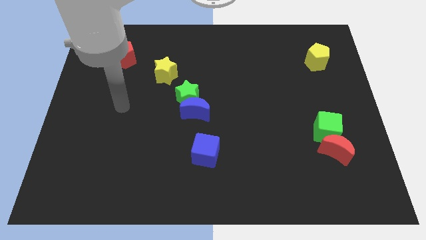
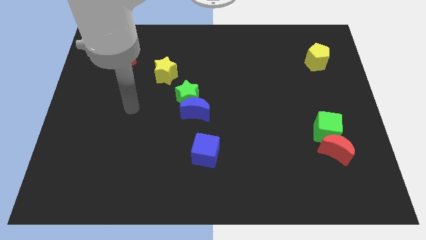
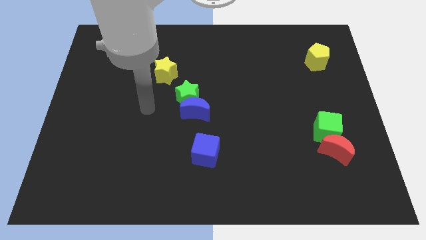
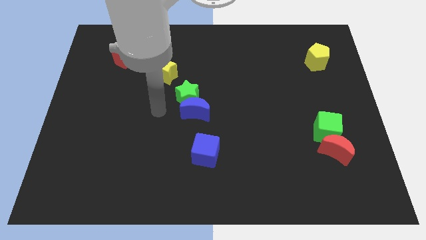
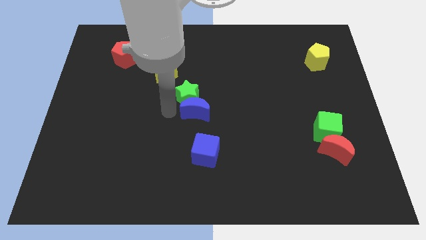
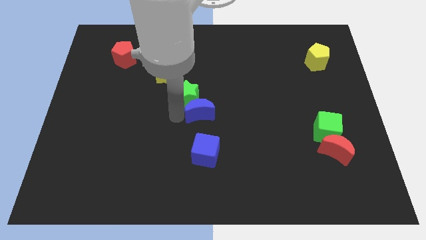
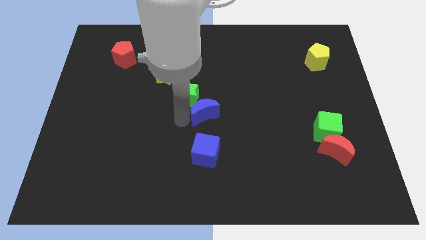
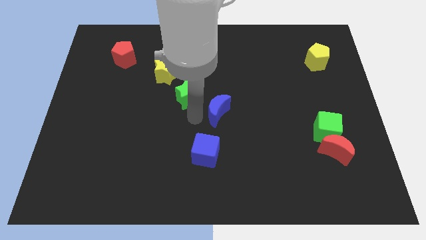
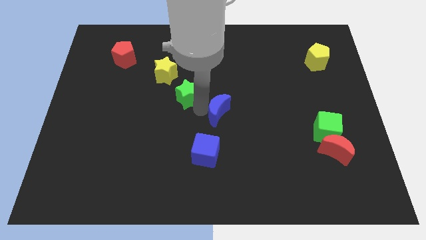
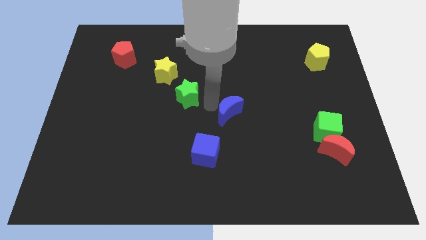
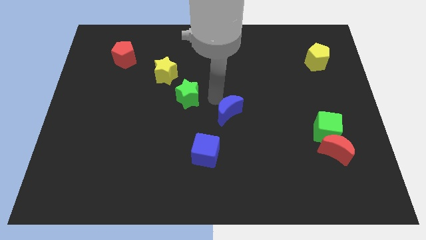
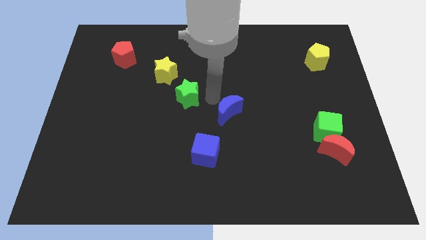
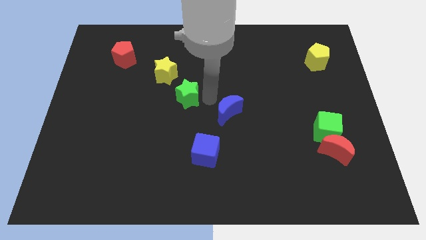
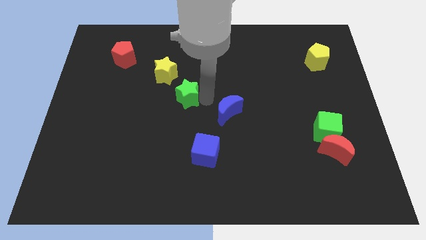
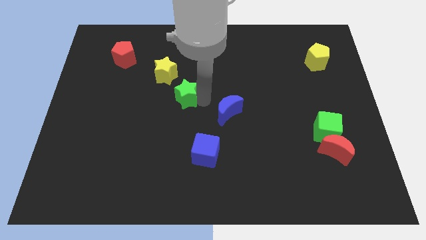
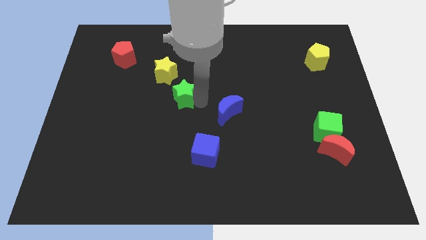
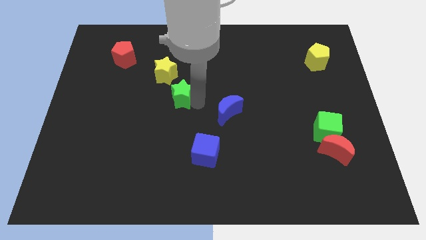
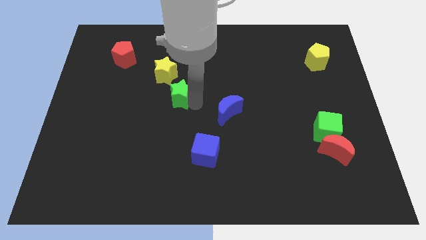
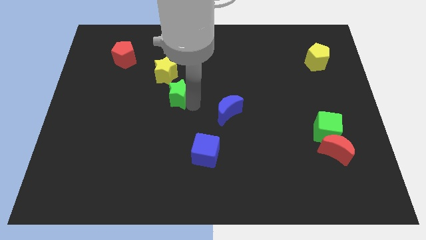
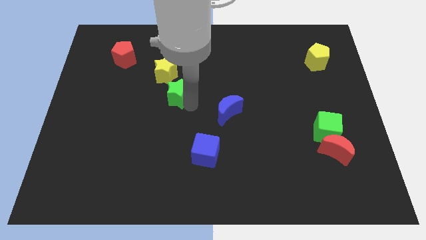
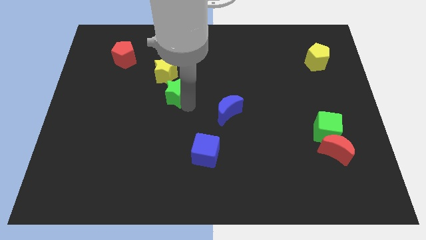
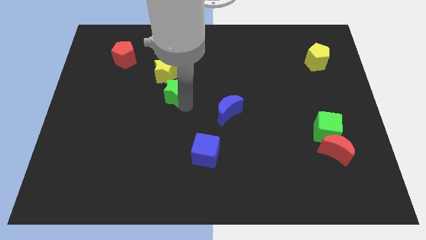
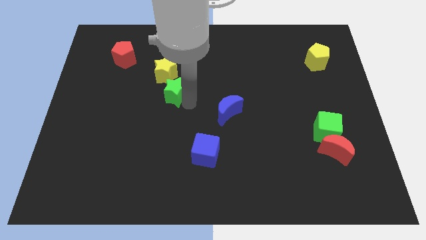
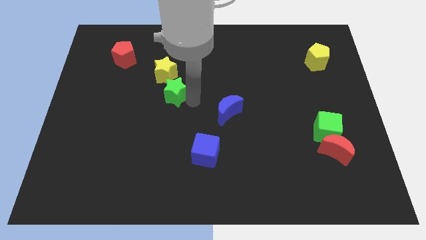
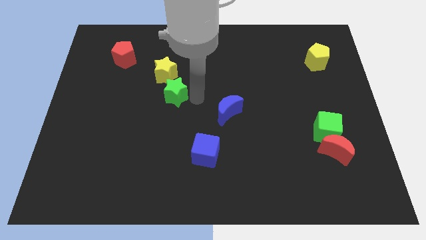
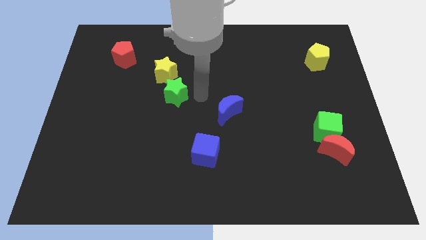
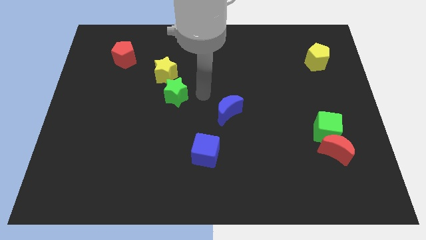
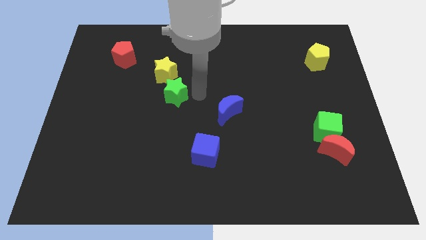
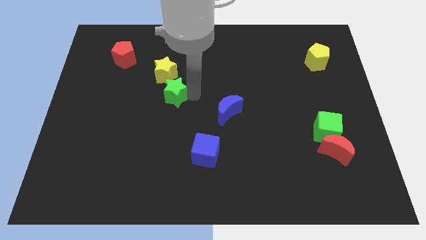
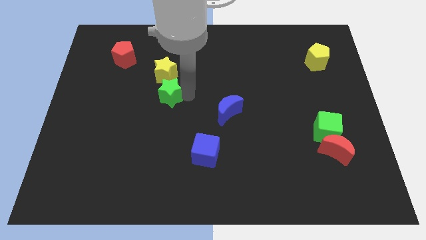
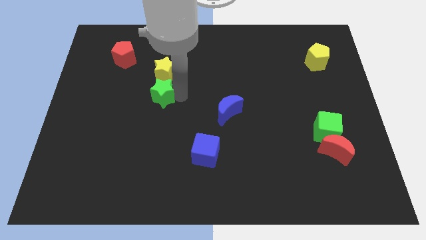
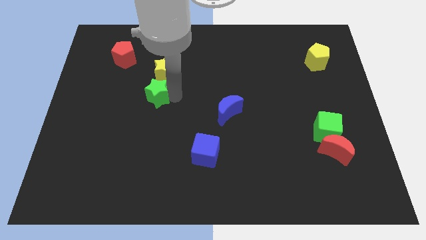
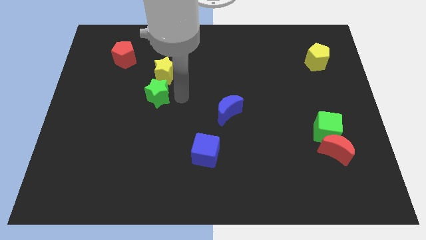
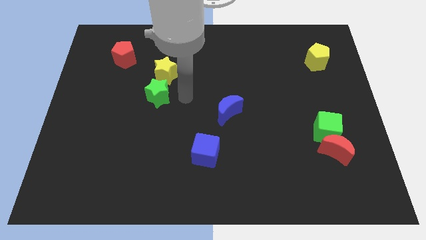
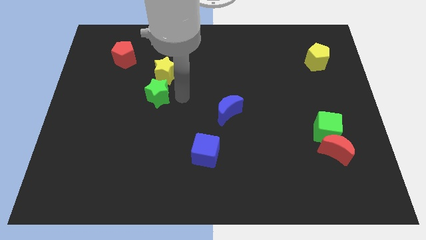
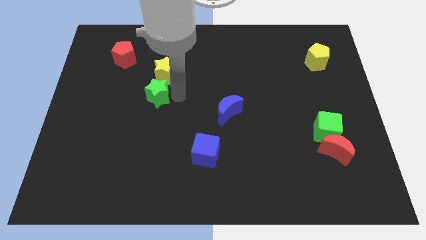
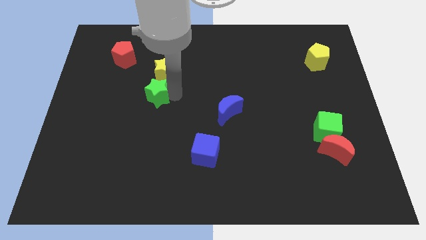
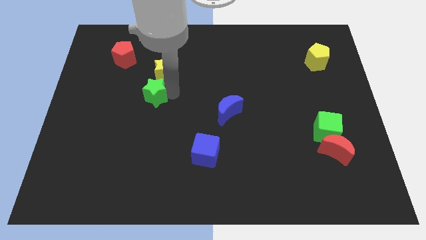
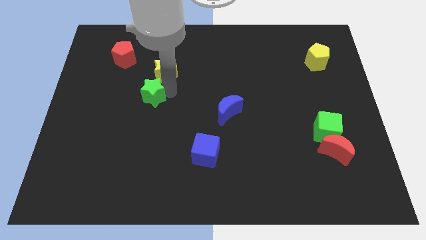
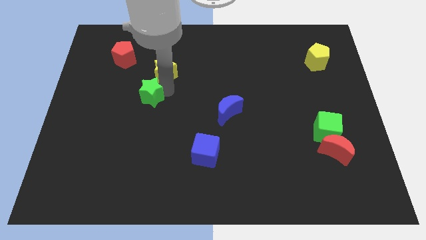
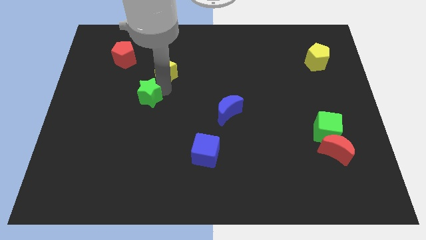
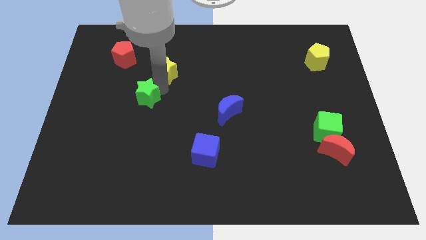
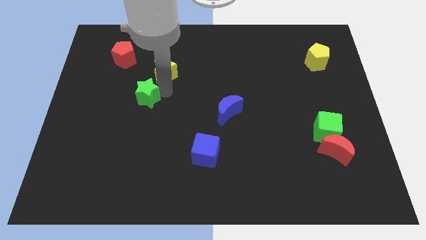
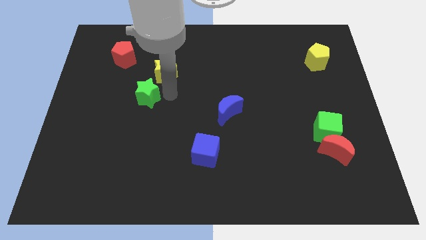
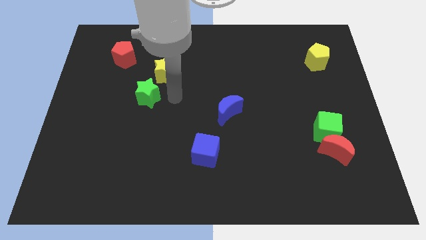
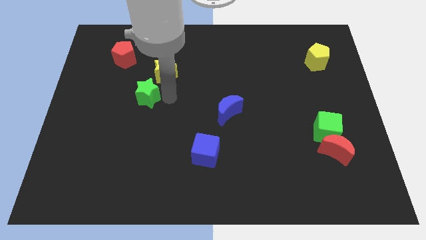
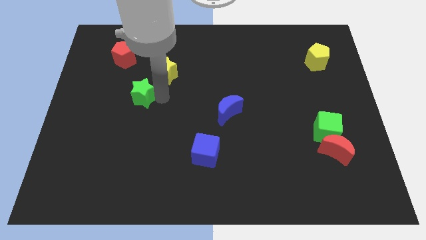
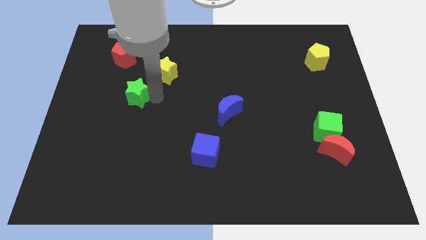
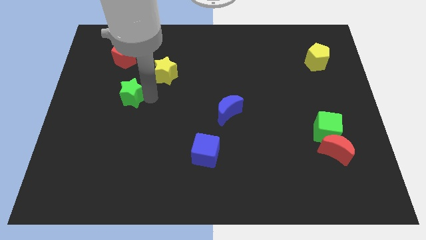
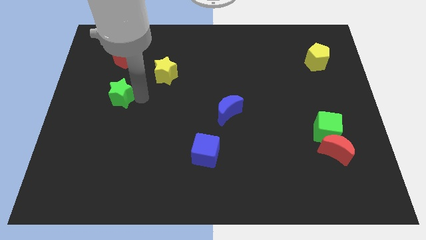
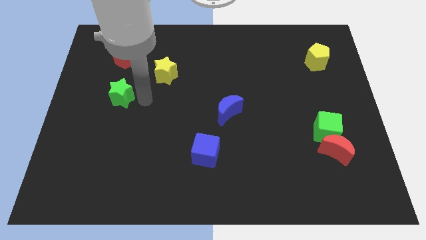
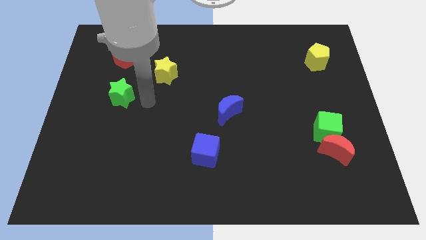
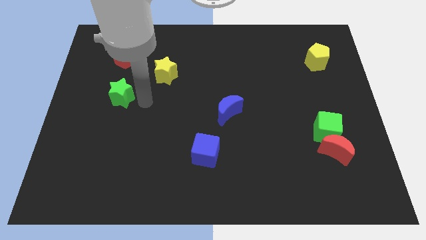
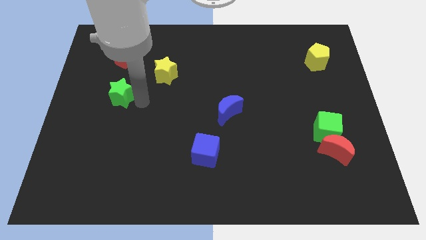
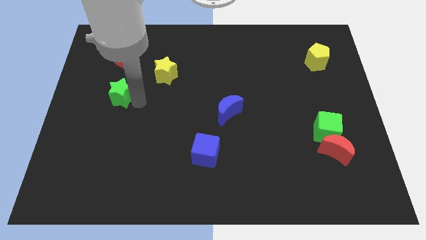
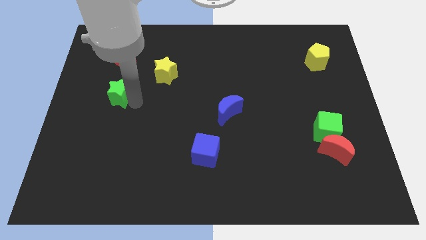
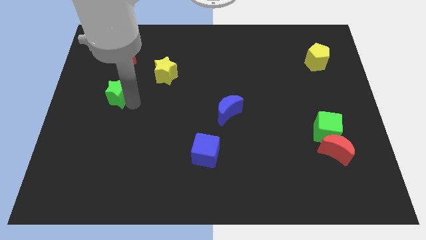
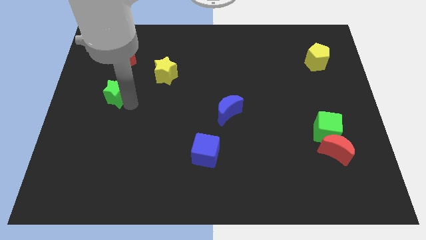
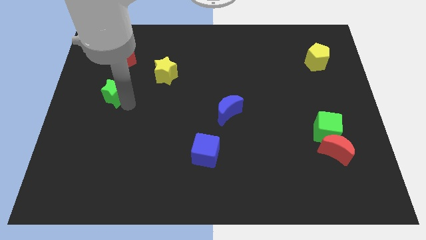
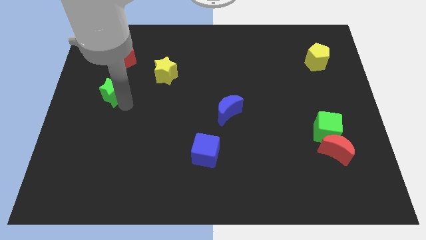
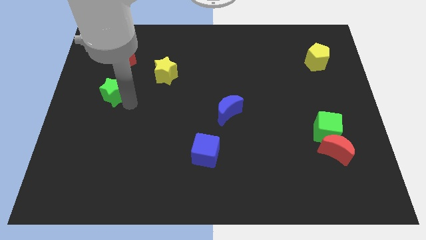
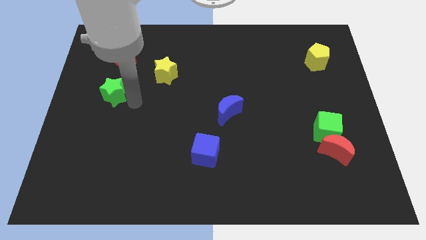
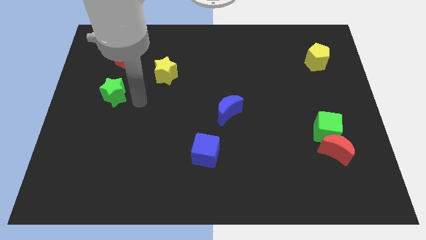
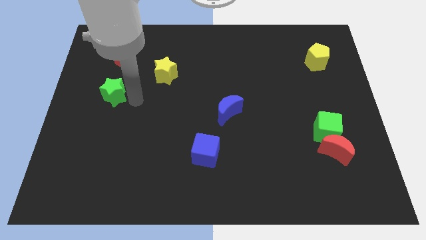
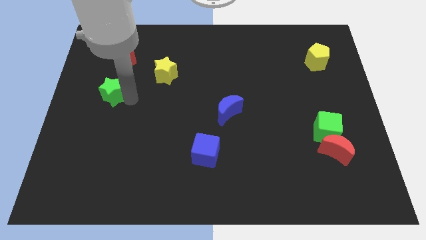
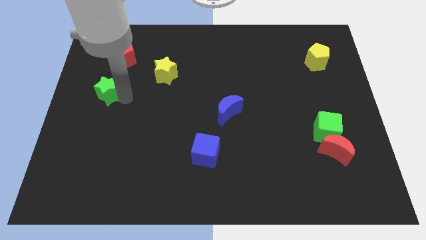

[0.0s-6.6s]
put the green star to the left side

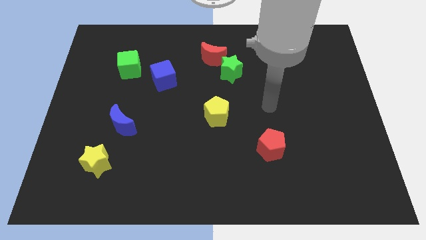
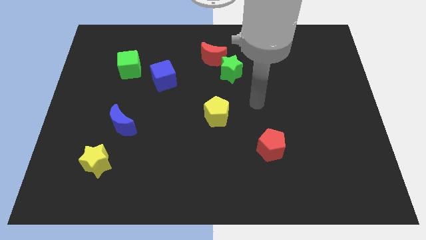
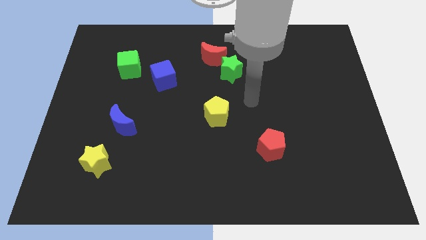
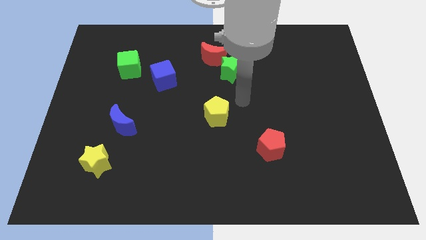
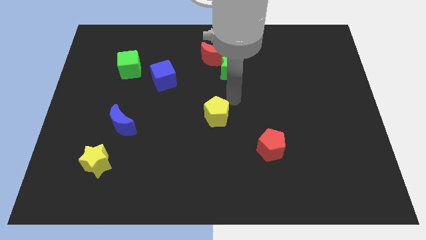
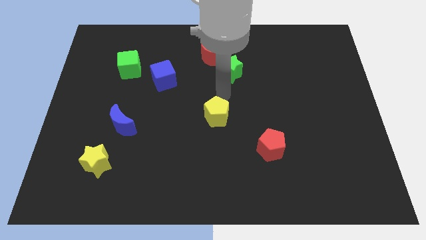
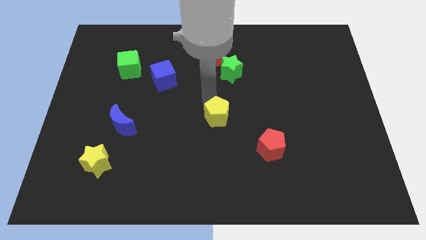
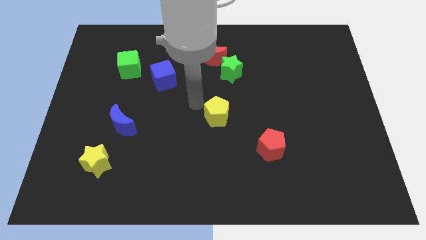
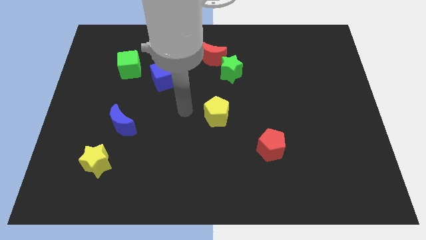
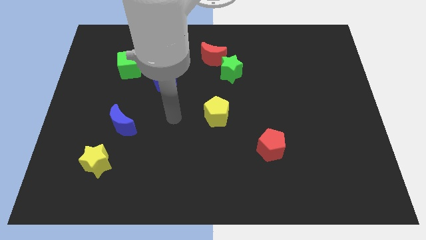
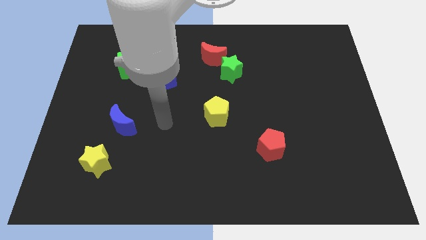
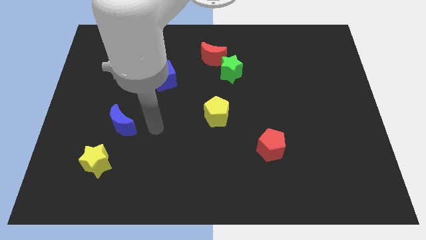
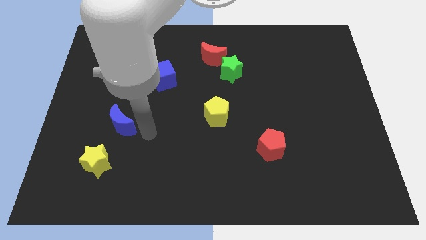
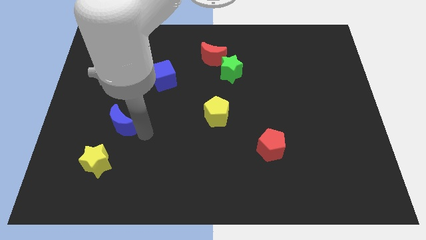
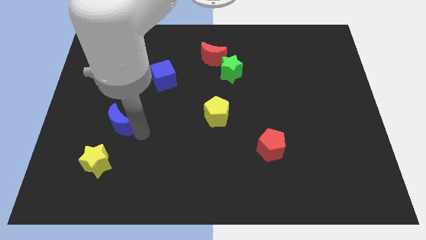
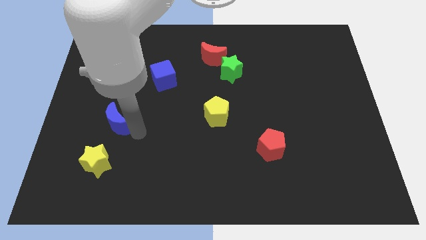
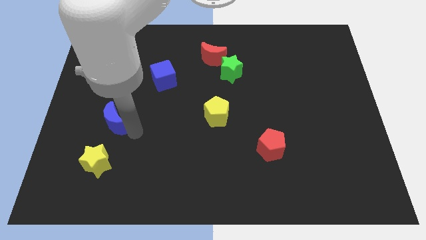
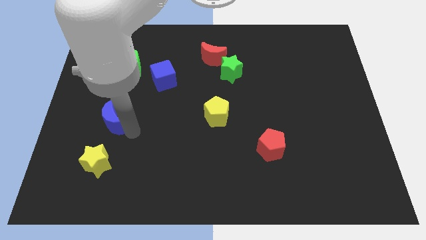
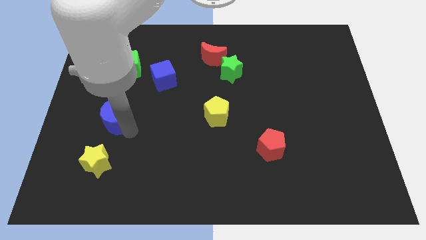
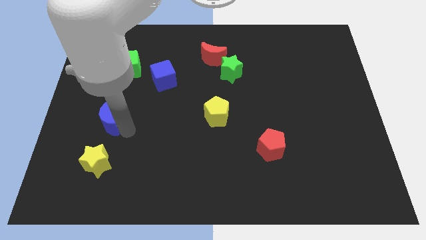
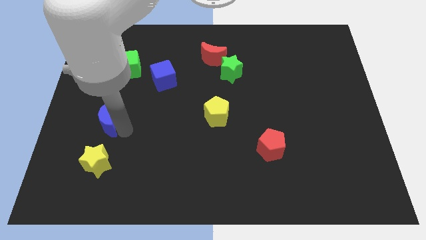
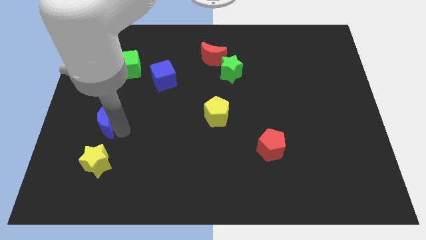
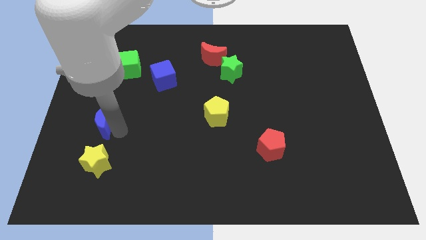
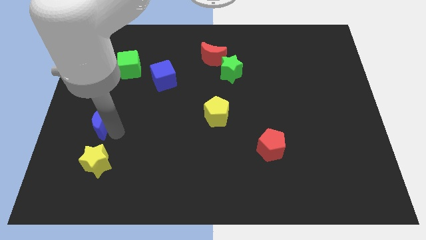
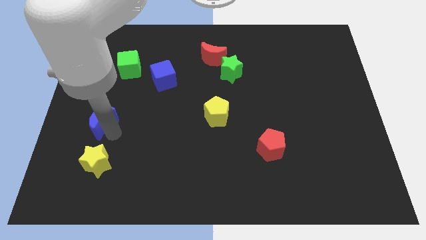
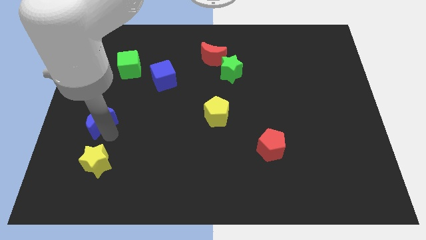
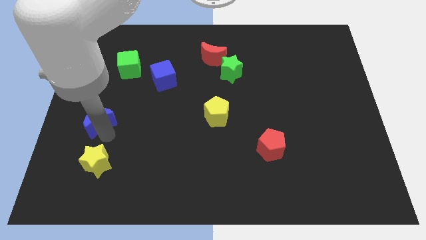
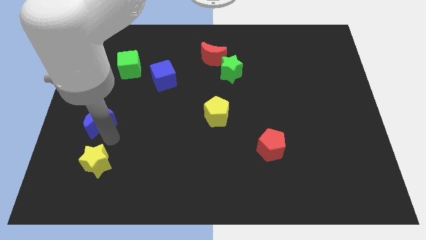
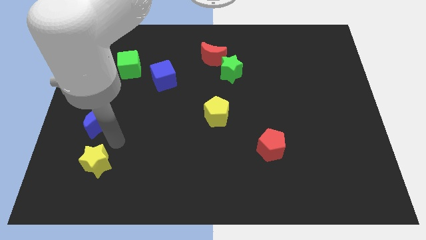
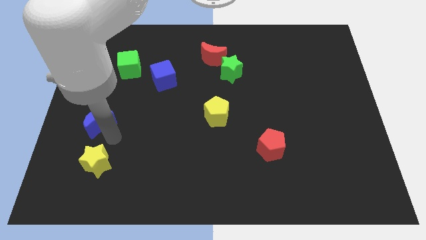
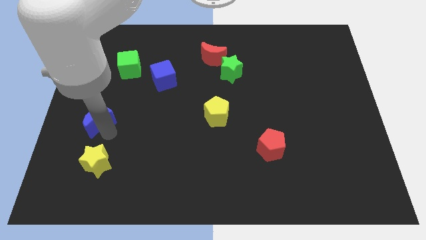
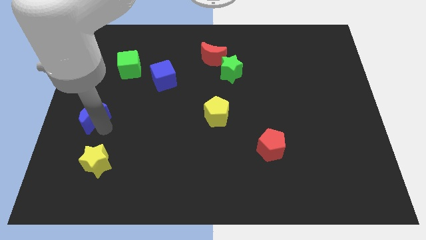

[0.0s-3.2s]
put the blue moon to the left side
